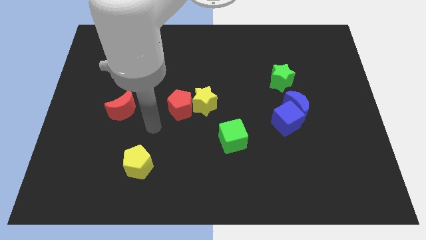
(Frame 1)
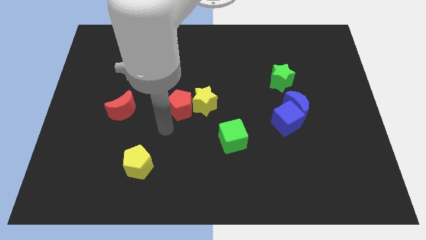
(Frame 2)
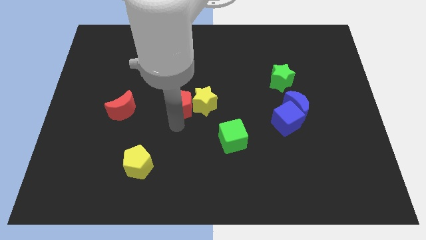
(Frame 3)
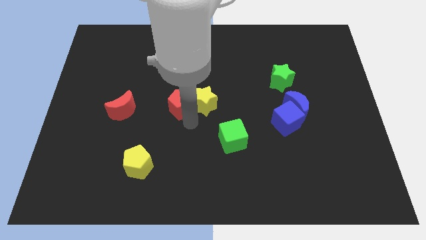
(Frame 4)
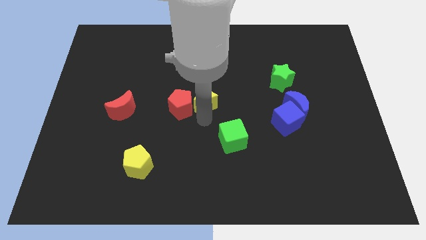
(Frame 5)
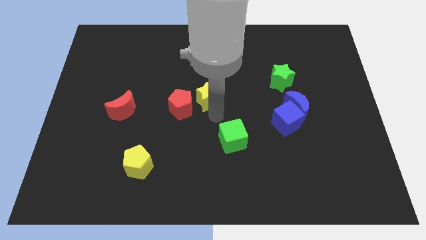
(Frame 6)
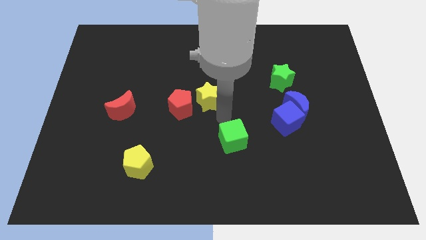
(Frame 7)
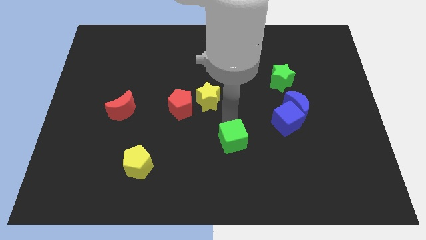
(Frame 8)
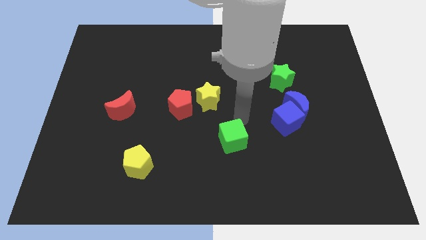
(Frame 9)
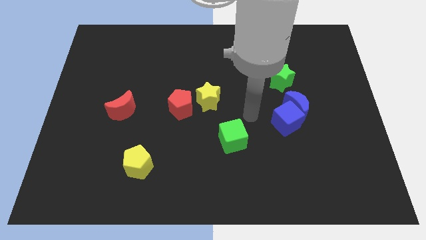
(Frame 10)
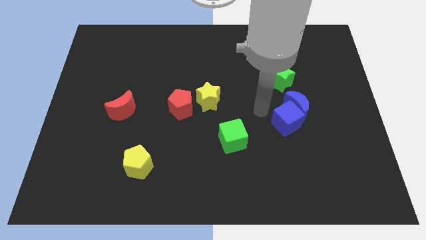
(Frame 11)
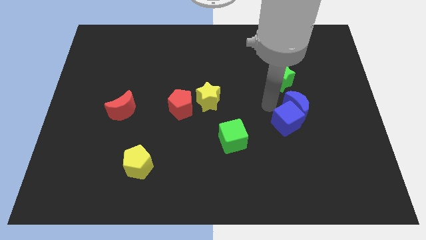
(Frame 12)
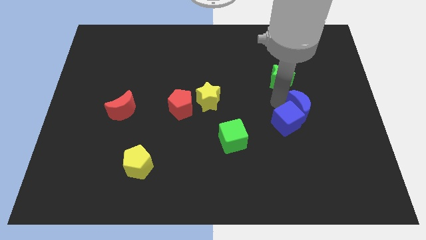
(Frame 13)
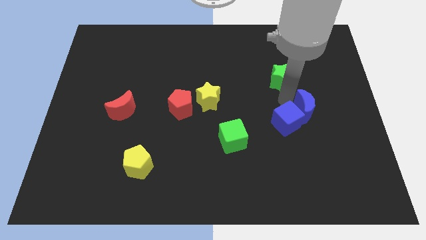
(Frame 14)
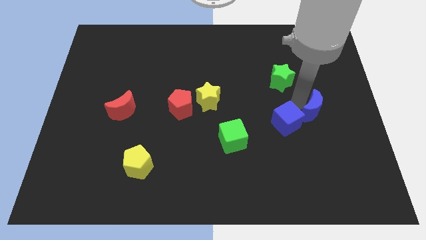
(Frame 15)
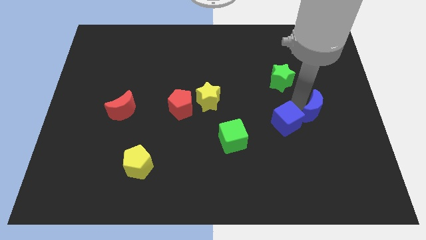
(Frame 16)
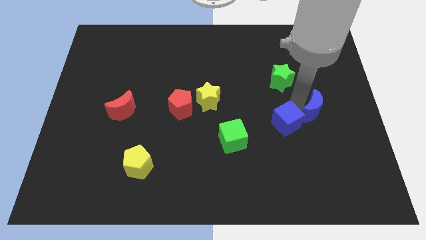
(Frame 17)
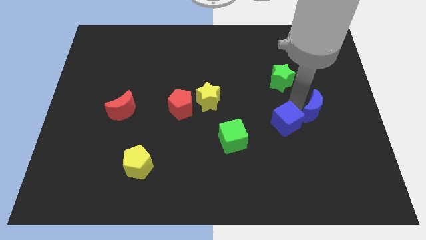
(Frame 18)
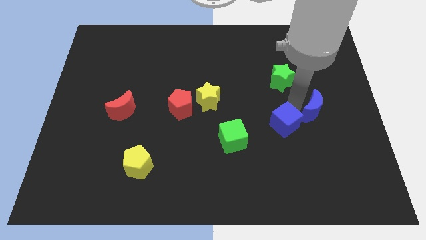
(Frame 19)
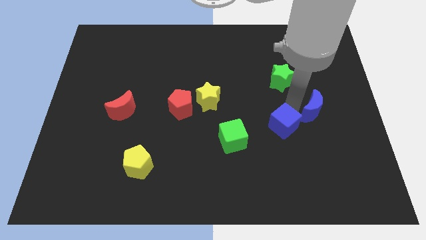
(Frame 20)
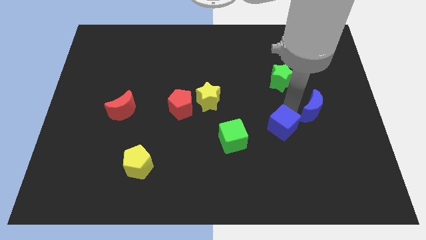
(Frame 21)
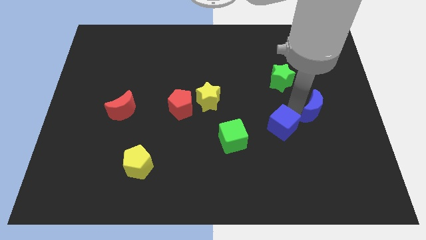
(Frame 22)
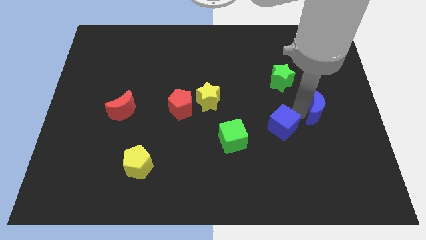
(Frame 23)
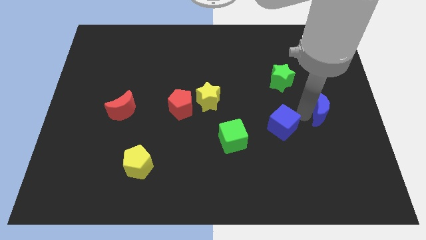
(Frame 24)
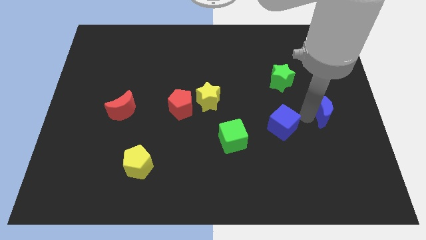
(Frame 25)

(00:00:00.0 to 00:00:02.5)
move the blue cube away from the blue moon

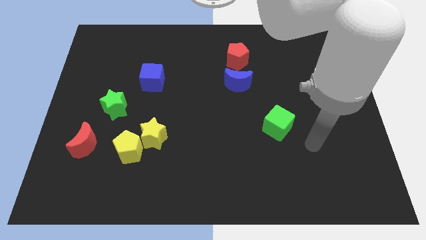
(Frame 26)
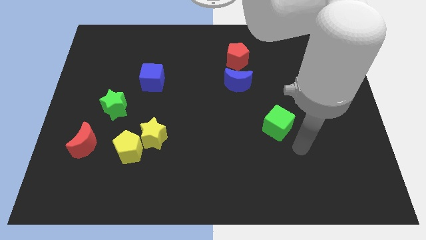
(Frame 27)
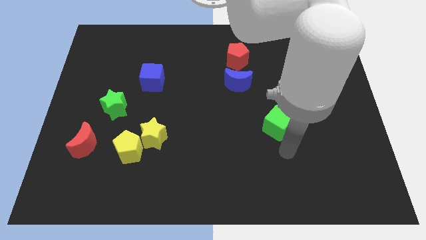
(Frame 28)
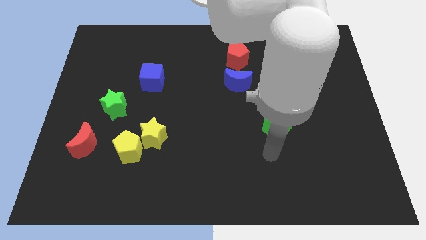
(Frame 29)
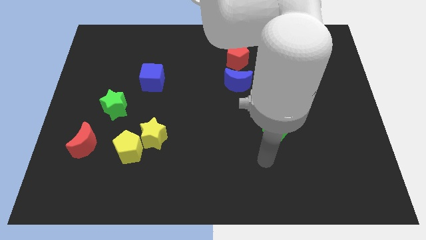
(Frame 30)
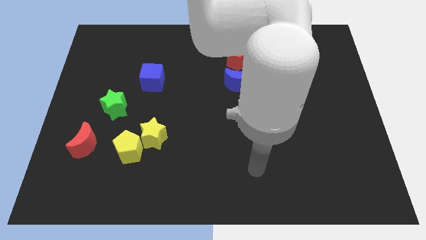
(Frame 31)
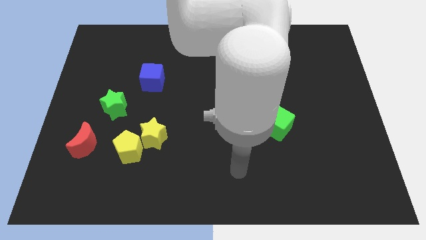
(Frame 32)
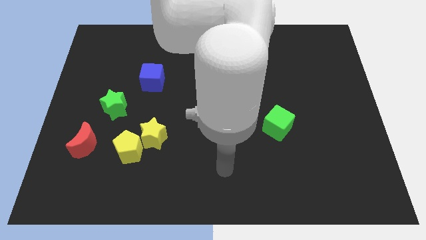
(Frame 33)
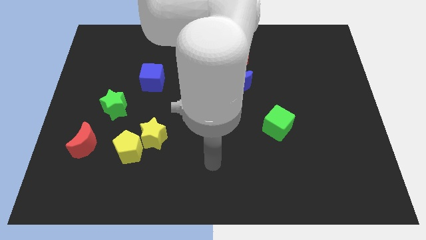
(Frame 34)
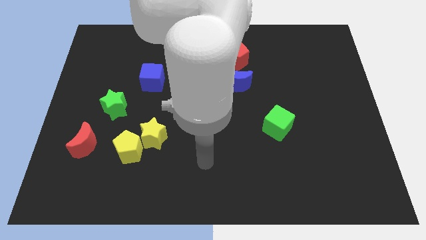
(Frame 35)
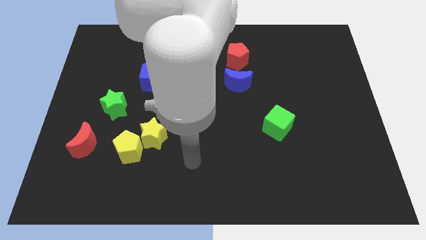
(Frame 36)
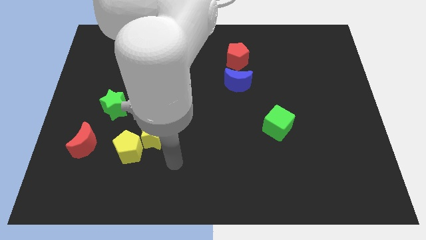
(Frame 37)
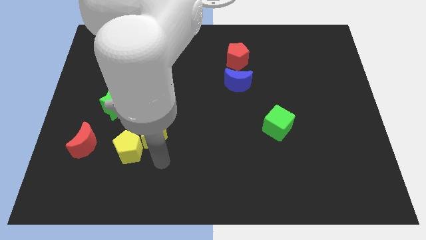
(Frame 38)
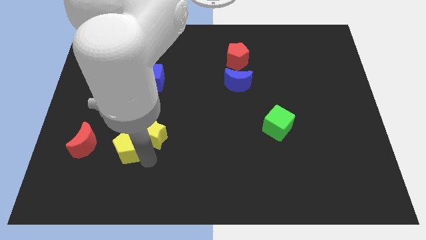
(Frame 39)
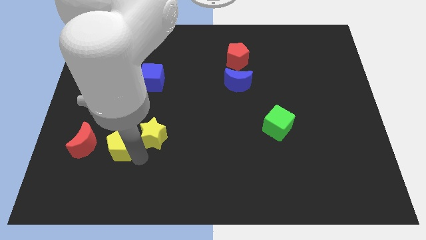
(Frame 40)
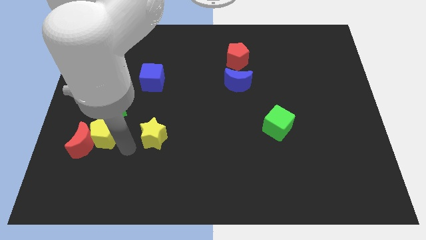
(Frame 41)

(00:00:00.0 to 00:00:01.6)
pull the yellow star apart from the yellow pentagon

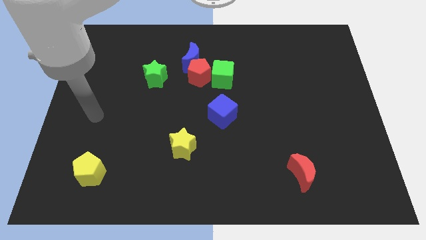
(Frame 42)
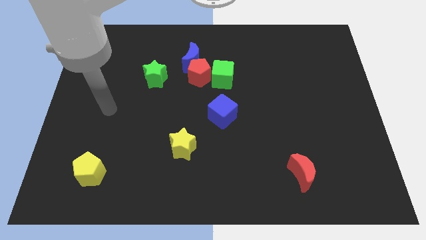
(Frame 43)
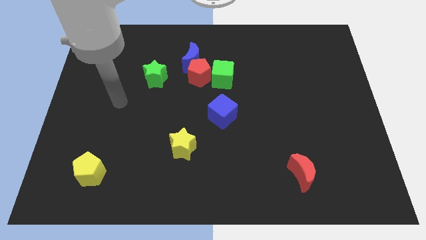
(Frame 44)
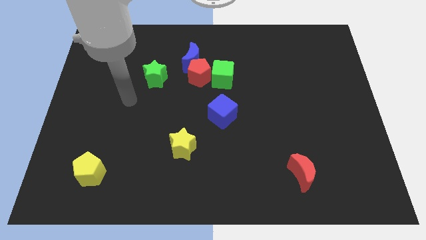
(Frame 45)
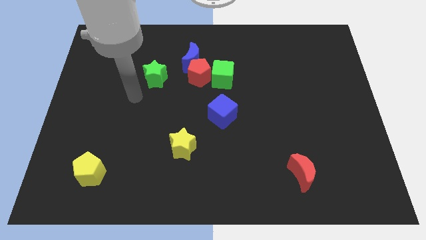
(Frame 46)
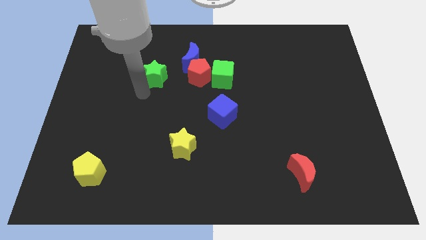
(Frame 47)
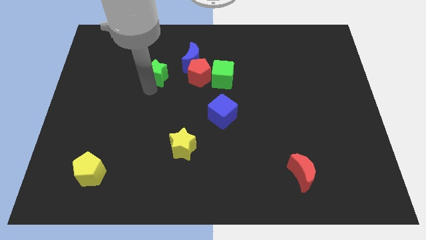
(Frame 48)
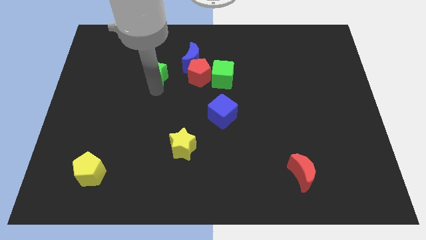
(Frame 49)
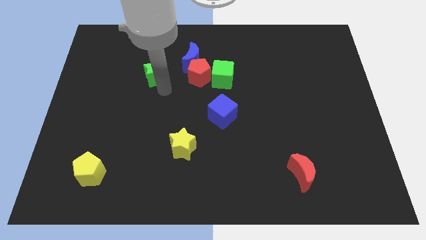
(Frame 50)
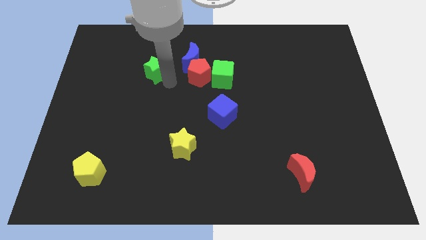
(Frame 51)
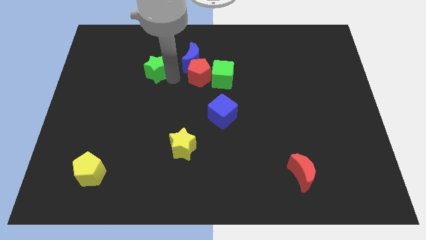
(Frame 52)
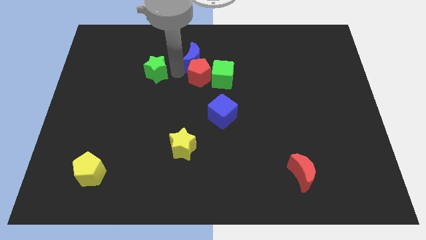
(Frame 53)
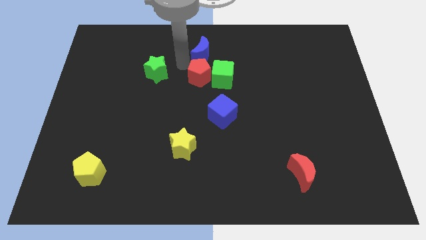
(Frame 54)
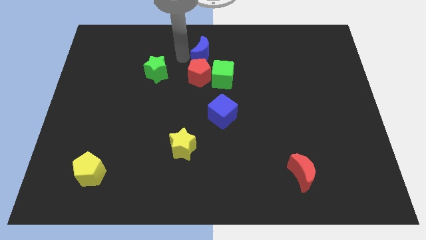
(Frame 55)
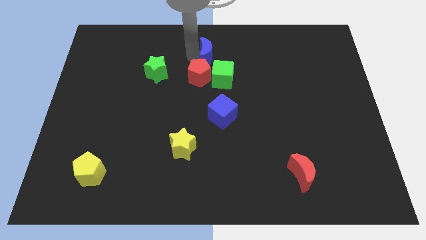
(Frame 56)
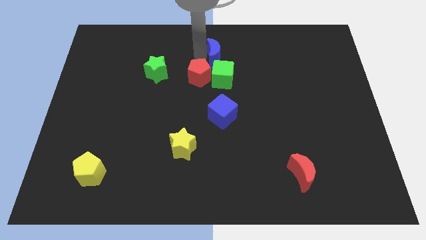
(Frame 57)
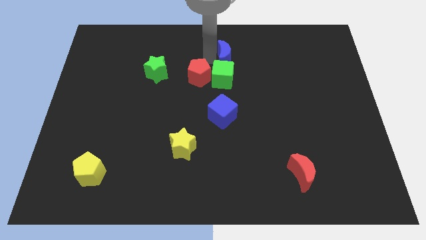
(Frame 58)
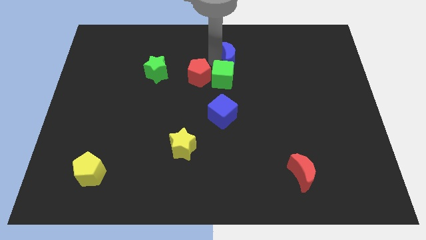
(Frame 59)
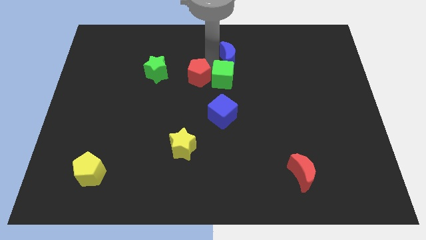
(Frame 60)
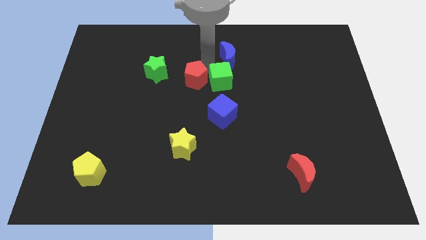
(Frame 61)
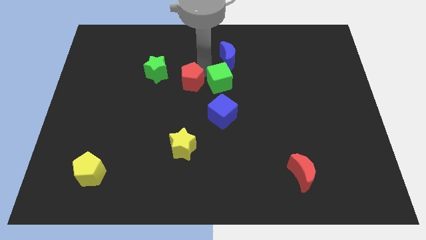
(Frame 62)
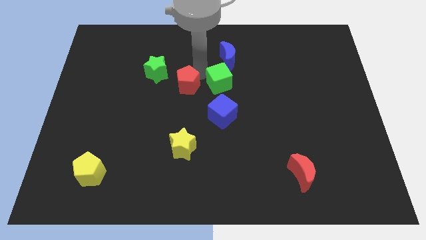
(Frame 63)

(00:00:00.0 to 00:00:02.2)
pull the red pentagon apart from the blue moon and green cube

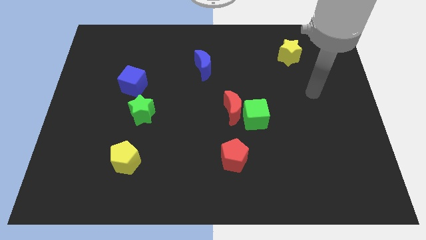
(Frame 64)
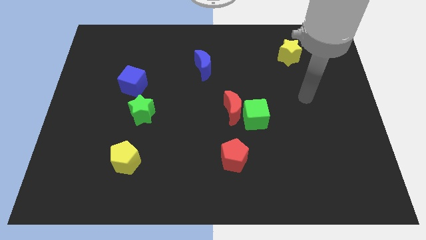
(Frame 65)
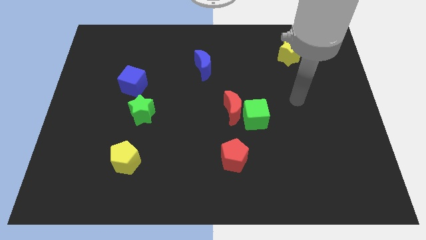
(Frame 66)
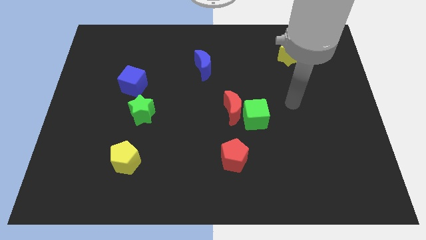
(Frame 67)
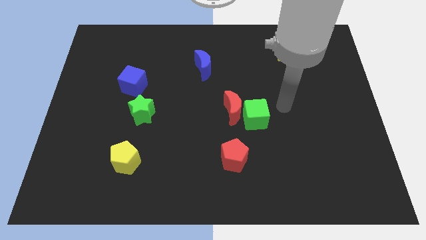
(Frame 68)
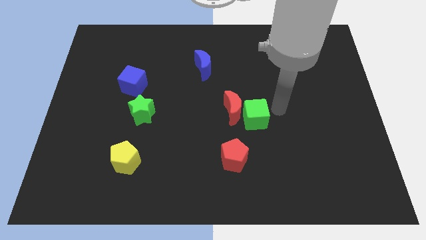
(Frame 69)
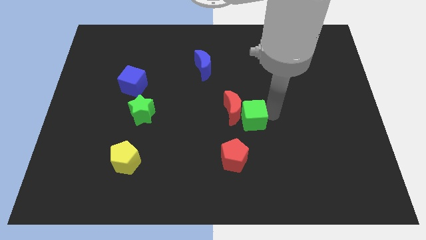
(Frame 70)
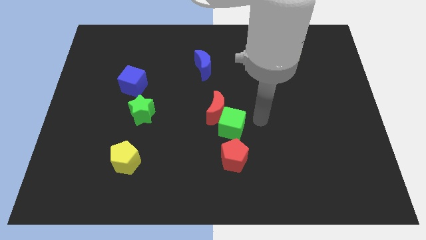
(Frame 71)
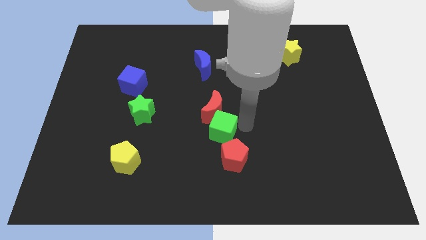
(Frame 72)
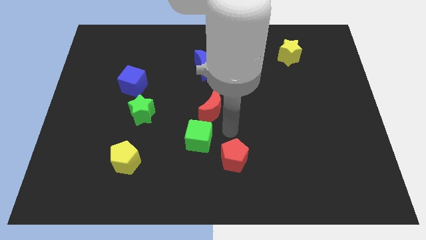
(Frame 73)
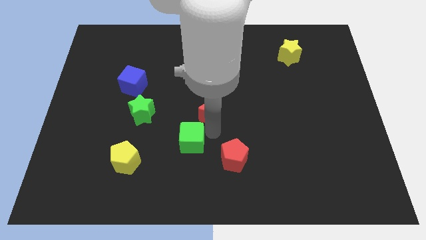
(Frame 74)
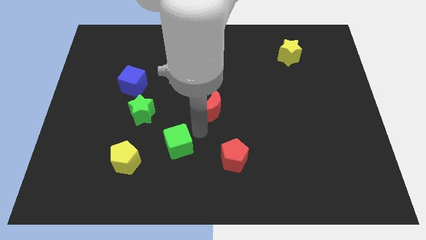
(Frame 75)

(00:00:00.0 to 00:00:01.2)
move the red moon away from the green cube

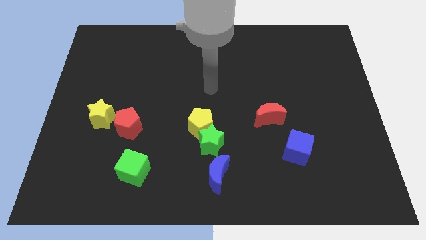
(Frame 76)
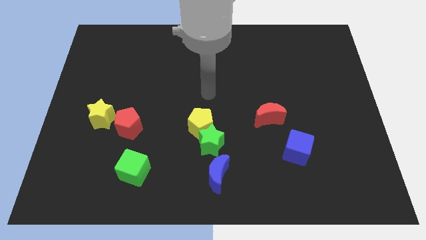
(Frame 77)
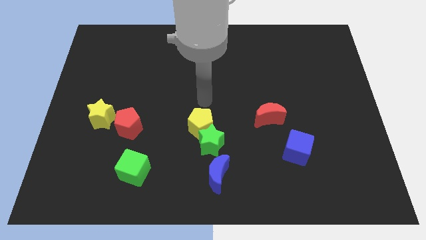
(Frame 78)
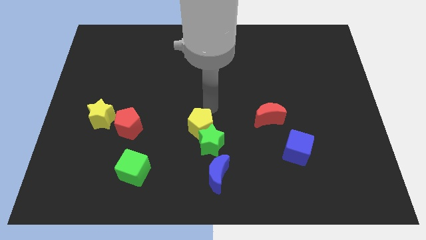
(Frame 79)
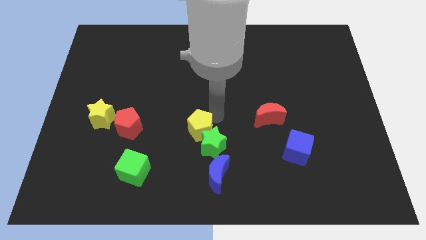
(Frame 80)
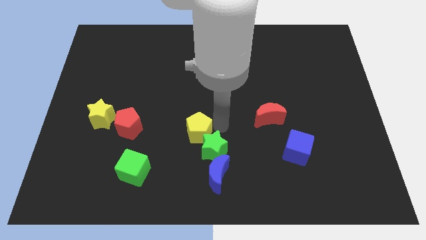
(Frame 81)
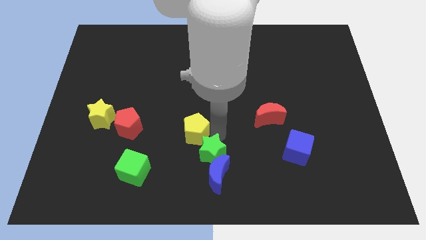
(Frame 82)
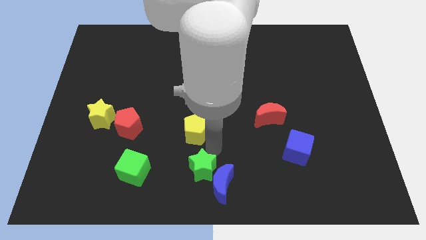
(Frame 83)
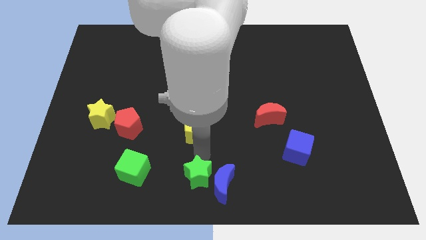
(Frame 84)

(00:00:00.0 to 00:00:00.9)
move the yellow pentagon away from the green star

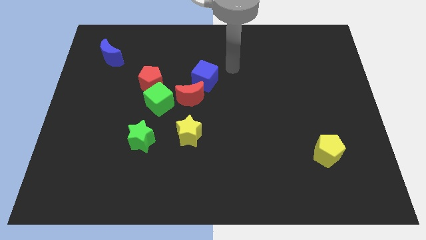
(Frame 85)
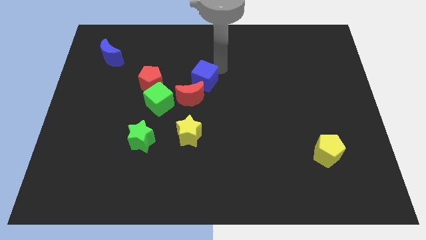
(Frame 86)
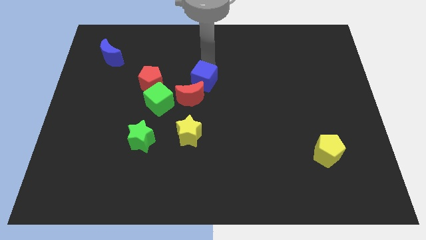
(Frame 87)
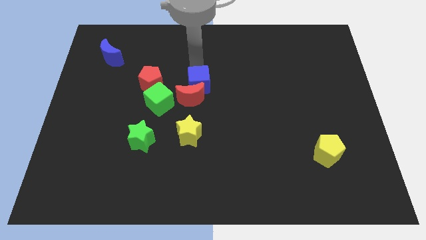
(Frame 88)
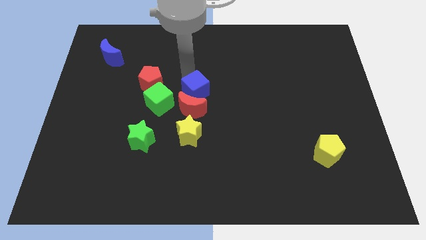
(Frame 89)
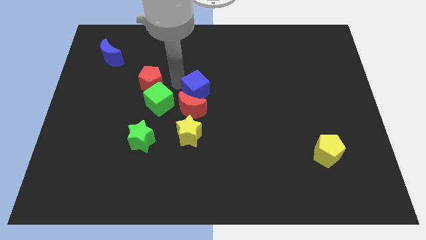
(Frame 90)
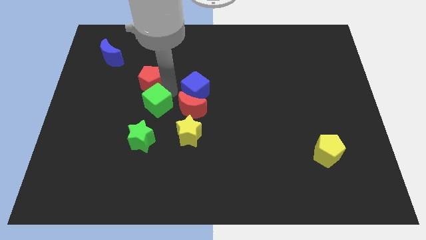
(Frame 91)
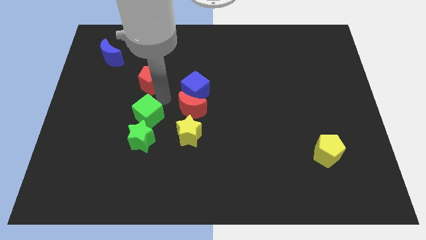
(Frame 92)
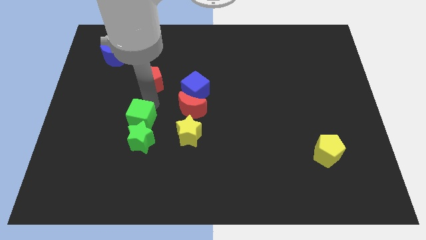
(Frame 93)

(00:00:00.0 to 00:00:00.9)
move the red pentagon away from the green cube
